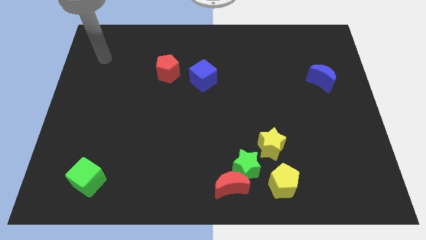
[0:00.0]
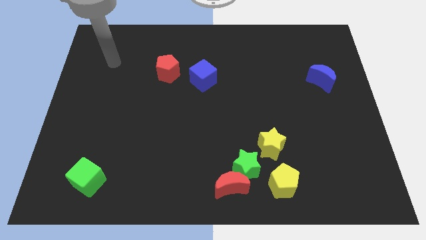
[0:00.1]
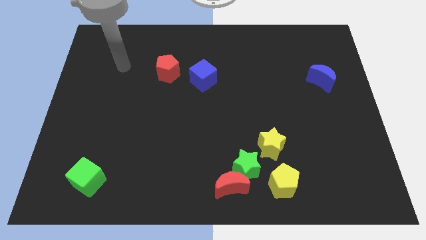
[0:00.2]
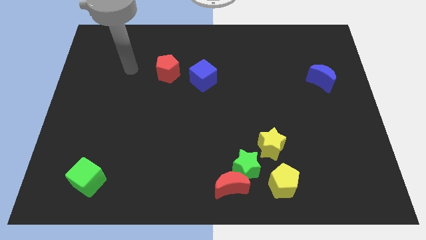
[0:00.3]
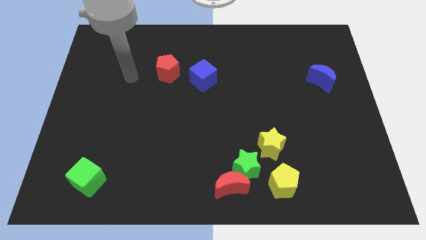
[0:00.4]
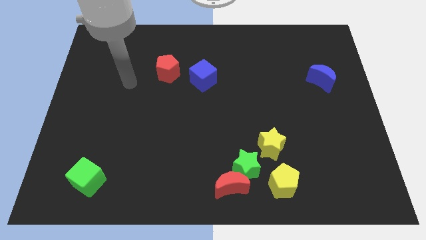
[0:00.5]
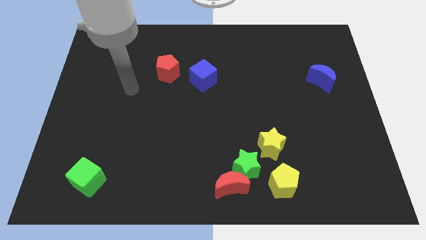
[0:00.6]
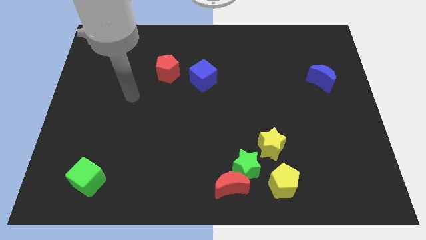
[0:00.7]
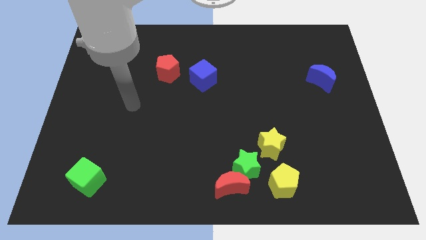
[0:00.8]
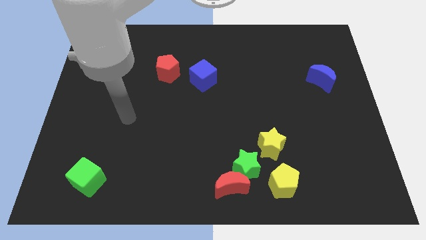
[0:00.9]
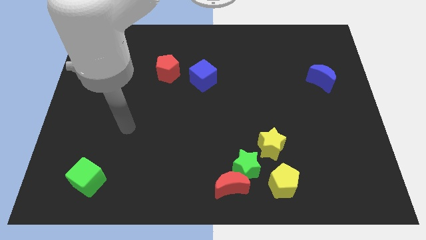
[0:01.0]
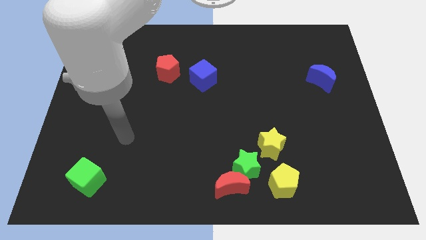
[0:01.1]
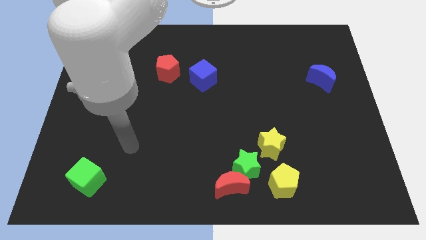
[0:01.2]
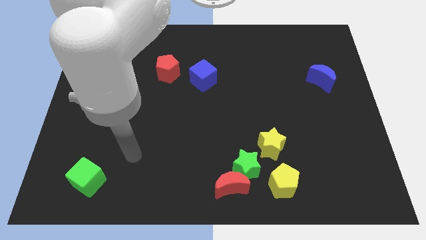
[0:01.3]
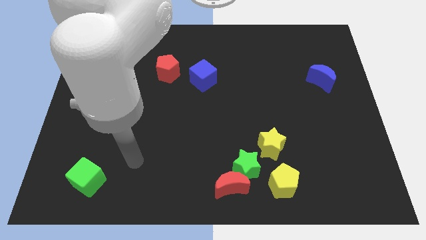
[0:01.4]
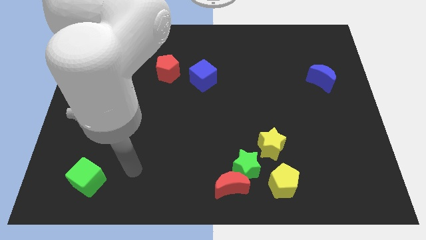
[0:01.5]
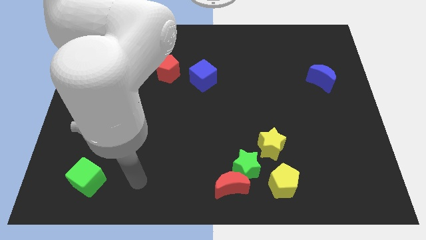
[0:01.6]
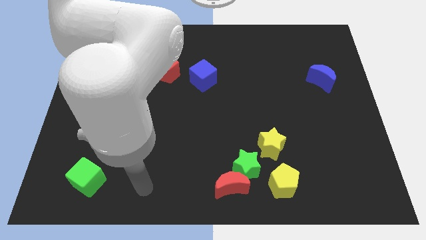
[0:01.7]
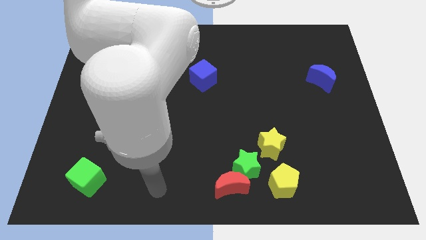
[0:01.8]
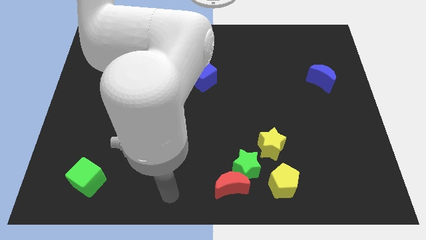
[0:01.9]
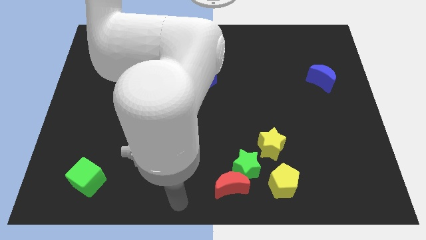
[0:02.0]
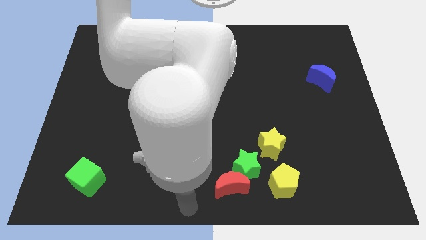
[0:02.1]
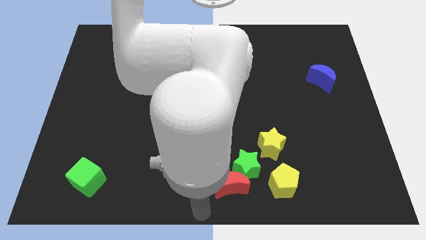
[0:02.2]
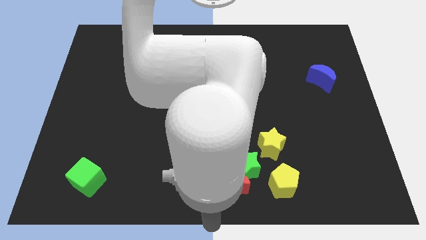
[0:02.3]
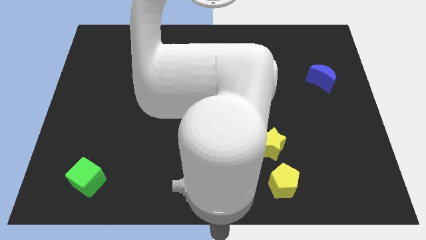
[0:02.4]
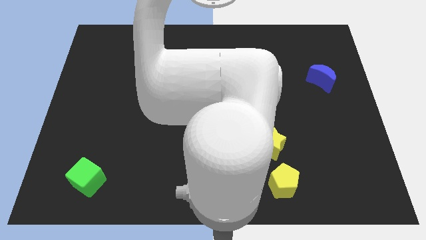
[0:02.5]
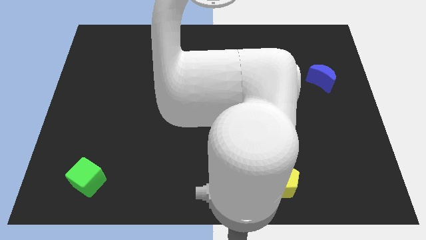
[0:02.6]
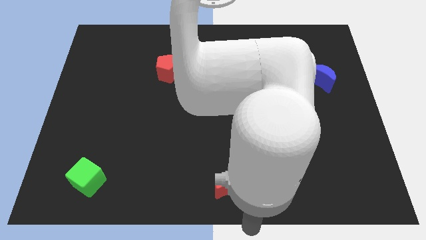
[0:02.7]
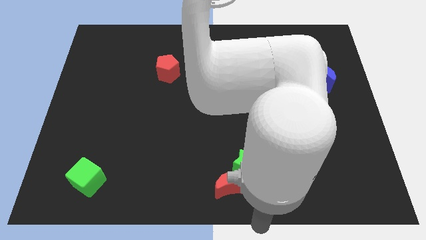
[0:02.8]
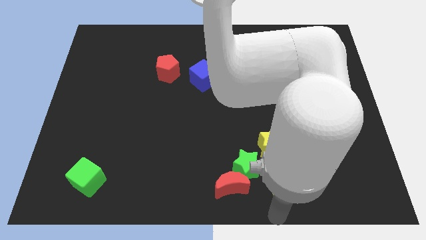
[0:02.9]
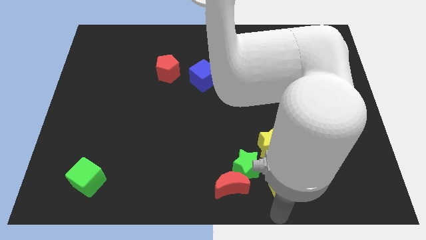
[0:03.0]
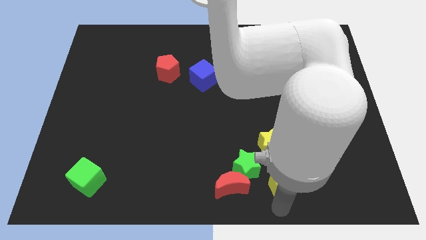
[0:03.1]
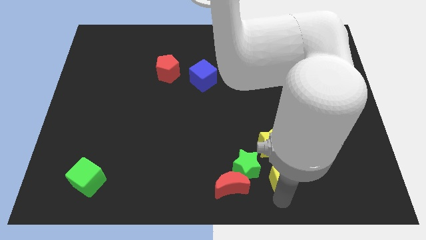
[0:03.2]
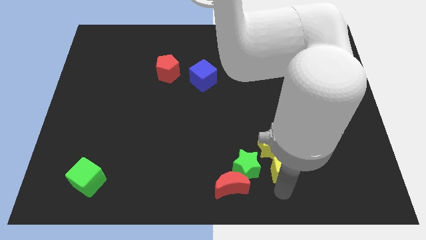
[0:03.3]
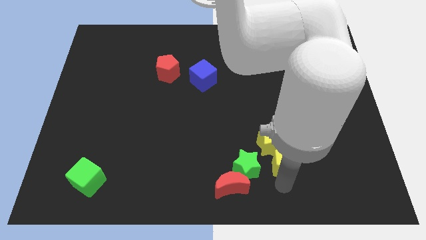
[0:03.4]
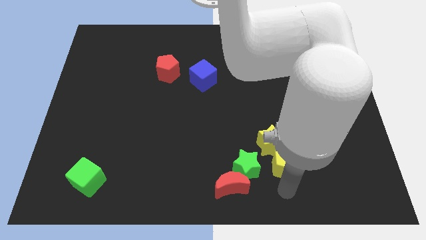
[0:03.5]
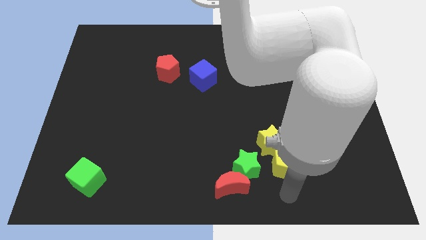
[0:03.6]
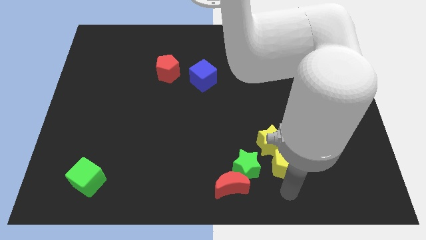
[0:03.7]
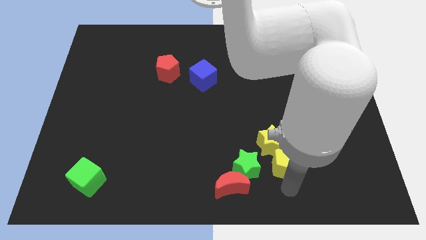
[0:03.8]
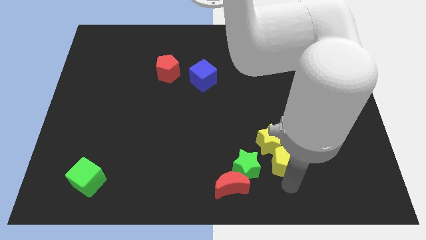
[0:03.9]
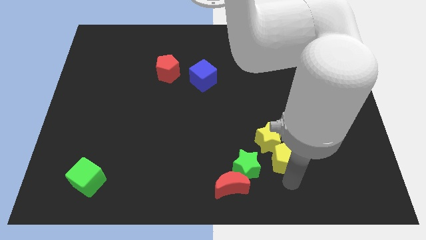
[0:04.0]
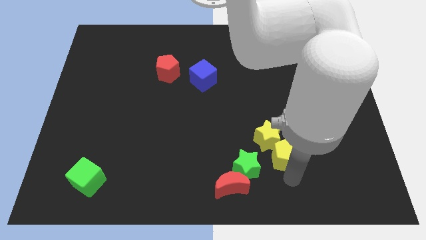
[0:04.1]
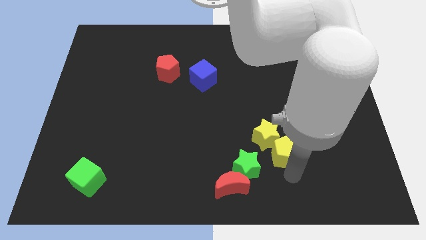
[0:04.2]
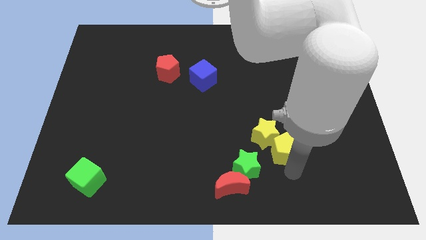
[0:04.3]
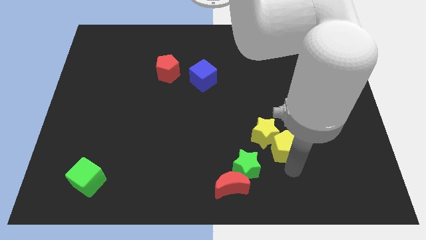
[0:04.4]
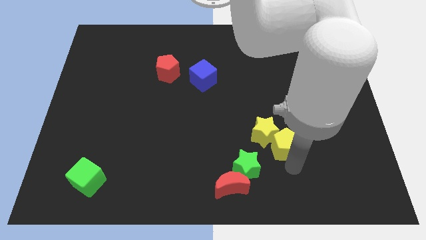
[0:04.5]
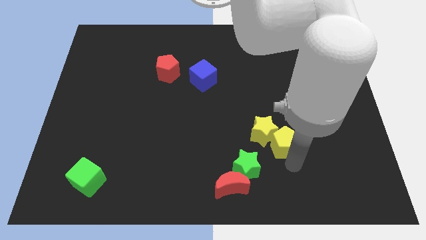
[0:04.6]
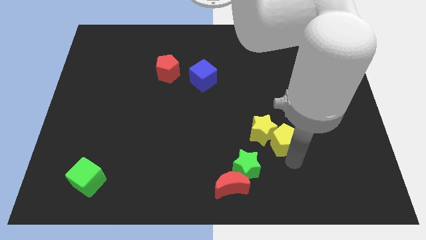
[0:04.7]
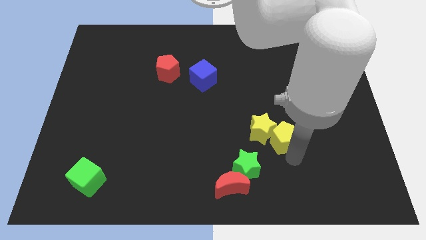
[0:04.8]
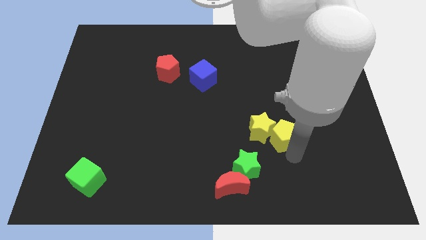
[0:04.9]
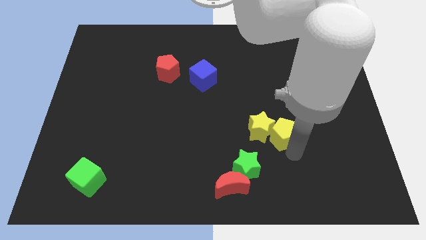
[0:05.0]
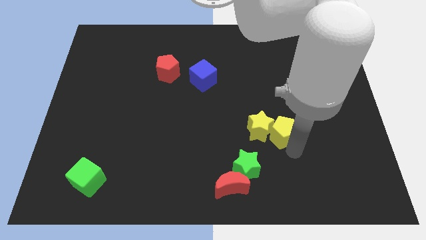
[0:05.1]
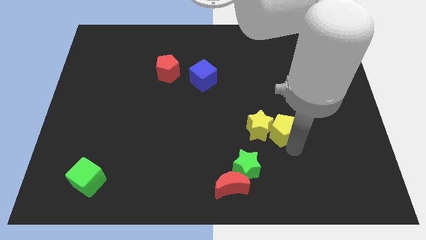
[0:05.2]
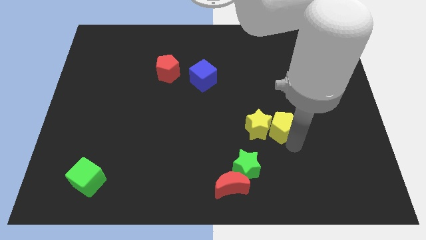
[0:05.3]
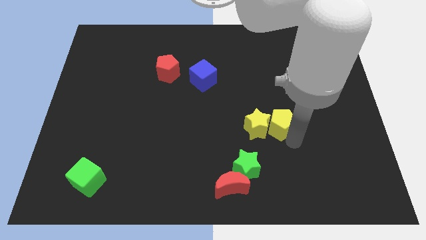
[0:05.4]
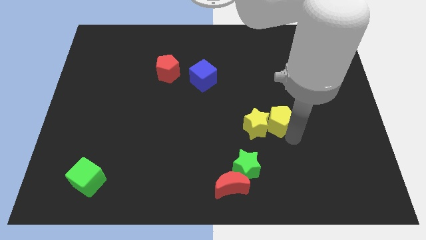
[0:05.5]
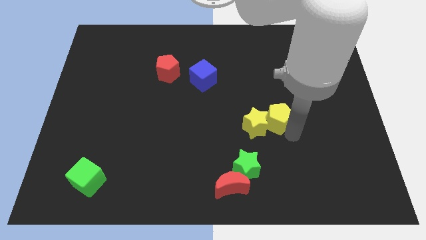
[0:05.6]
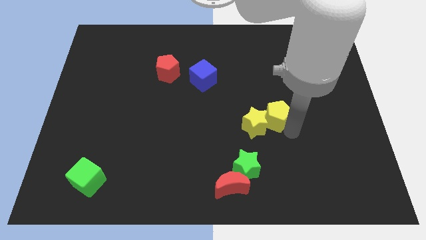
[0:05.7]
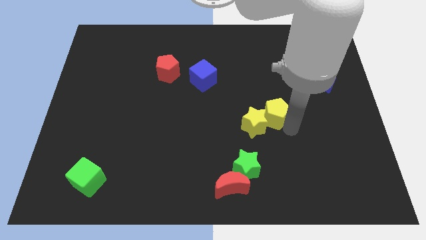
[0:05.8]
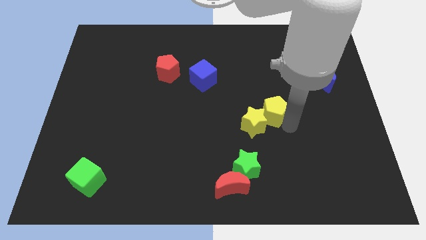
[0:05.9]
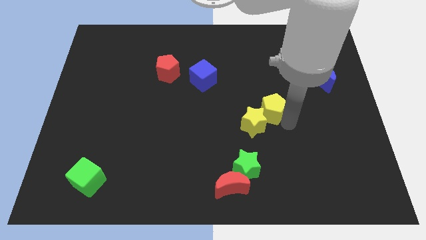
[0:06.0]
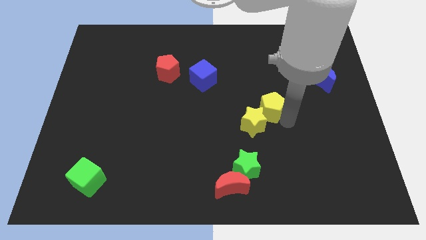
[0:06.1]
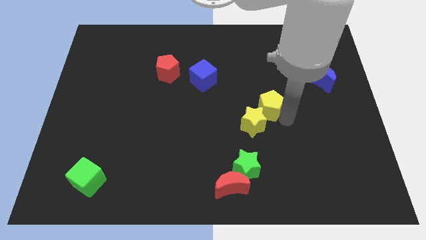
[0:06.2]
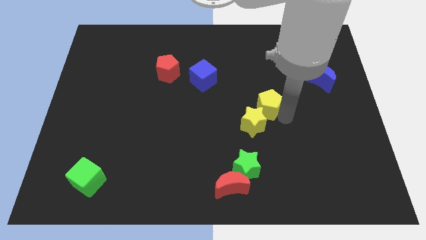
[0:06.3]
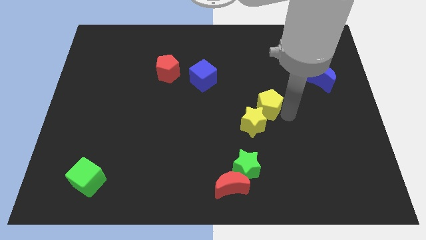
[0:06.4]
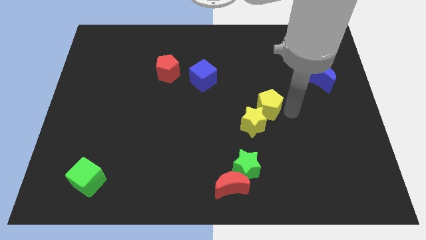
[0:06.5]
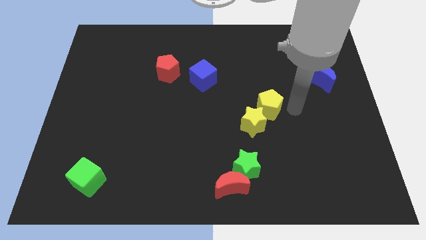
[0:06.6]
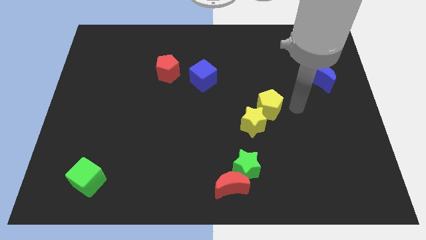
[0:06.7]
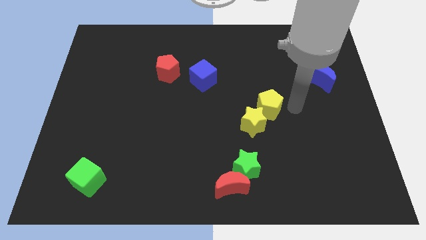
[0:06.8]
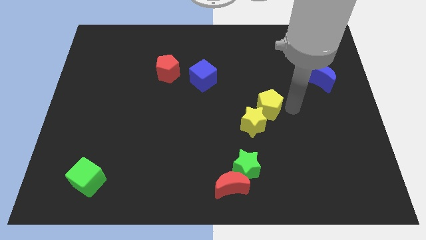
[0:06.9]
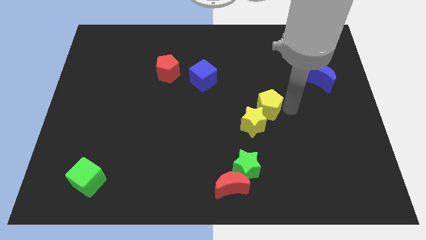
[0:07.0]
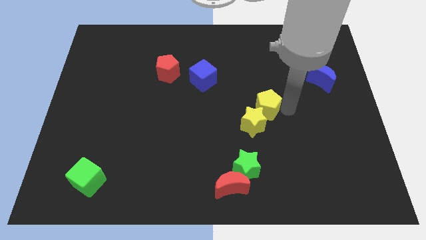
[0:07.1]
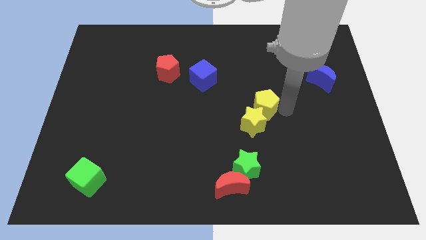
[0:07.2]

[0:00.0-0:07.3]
push the yellow pentagon to the middle
